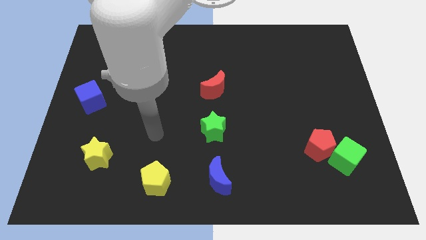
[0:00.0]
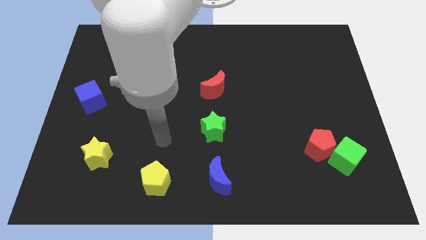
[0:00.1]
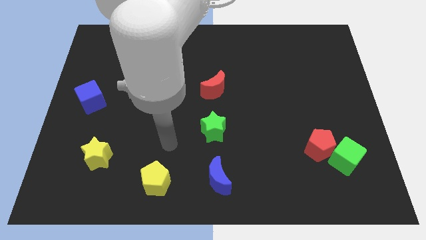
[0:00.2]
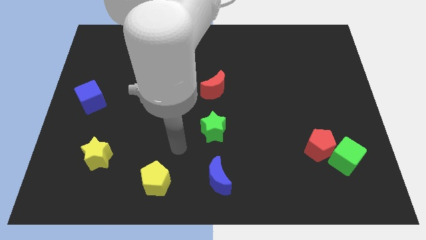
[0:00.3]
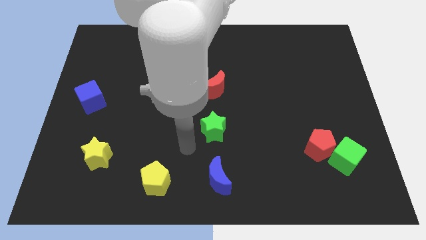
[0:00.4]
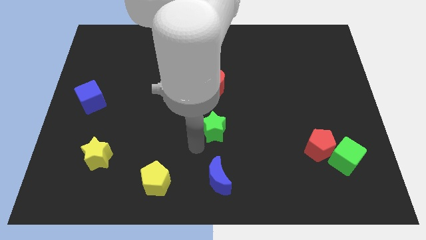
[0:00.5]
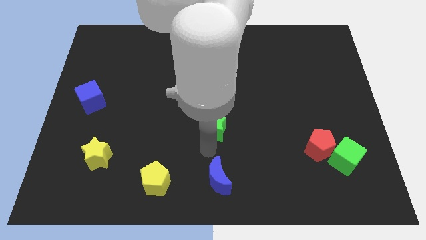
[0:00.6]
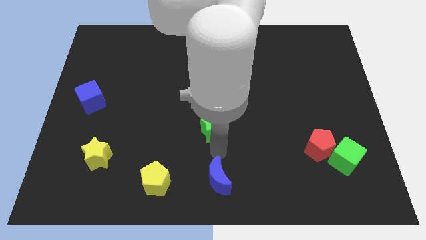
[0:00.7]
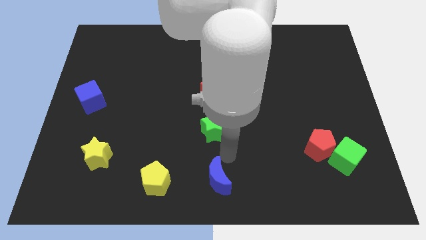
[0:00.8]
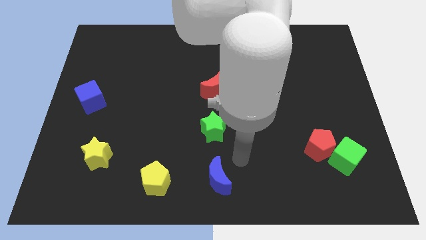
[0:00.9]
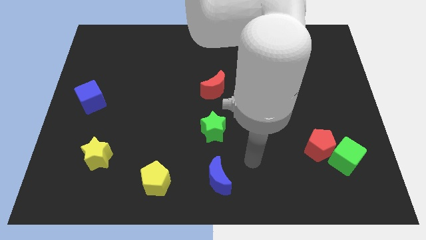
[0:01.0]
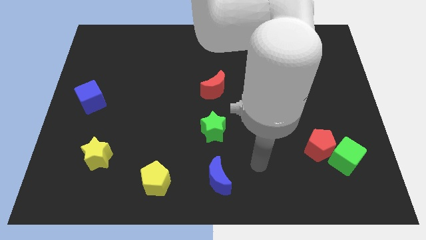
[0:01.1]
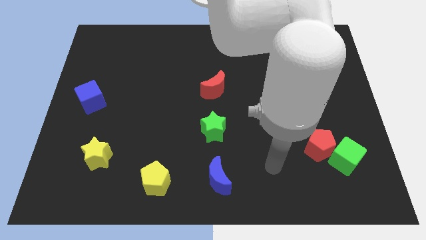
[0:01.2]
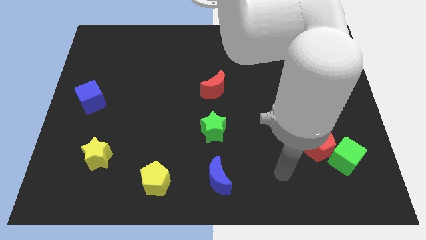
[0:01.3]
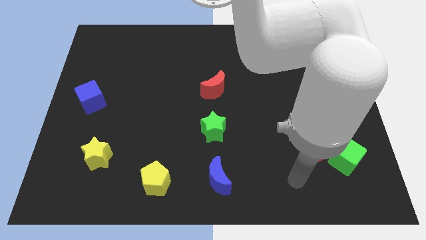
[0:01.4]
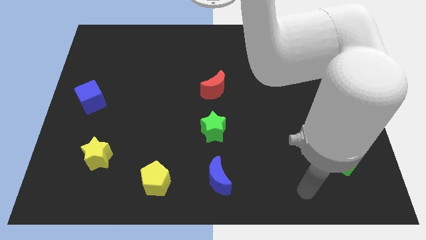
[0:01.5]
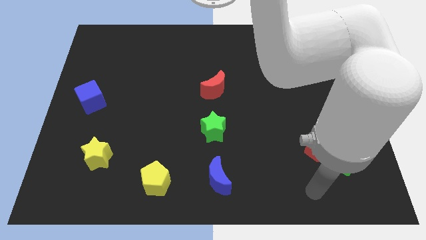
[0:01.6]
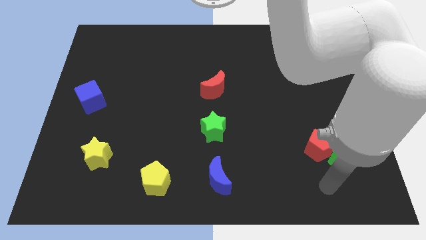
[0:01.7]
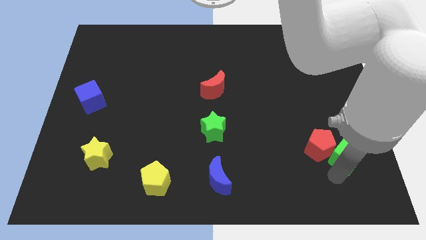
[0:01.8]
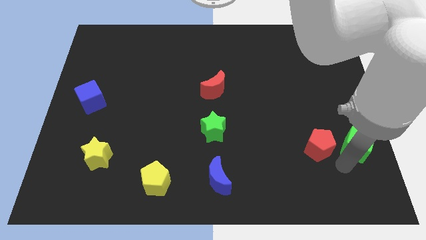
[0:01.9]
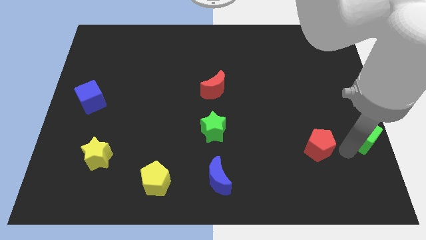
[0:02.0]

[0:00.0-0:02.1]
separate the red pentagon from the green cube

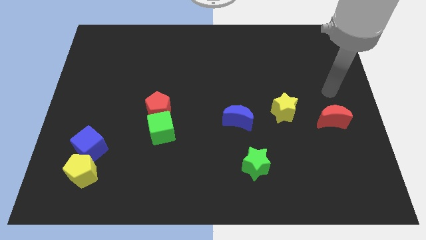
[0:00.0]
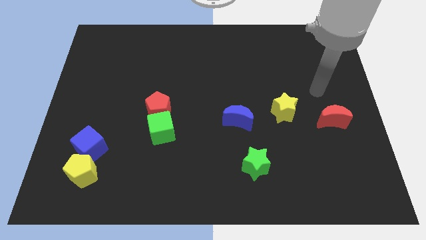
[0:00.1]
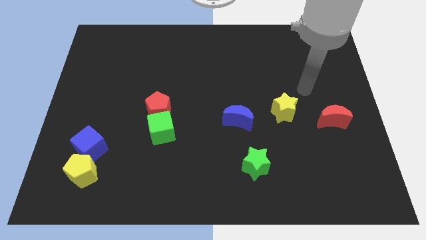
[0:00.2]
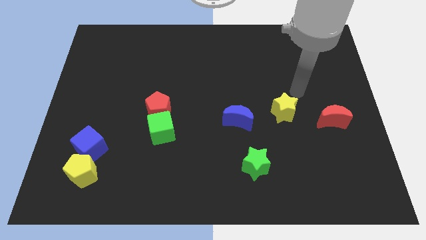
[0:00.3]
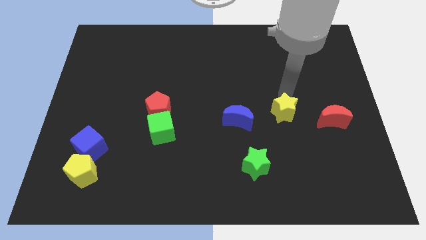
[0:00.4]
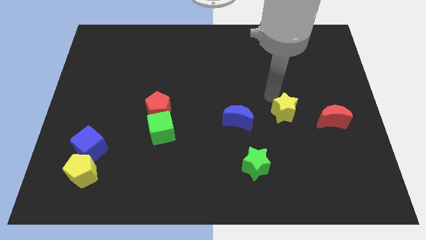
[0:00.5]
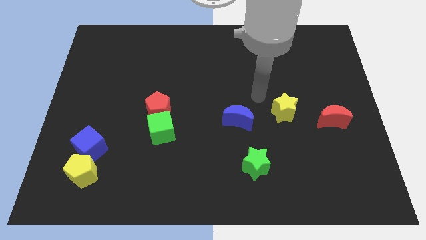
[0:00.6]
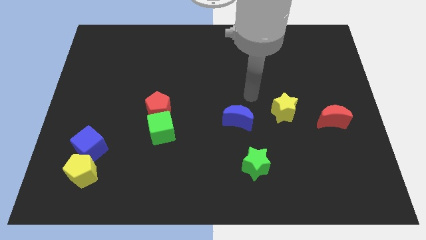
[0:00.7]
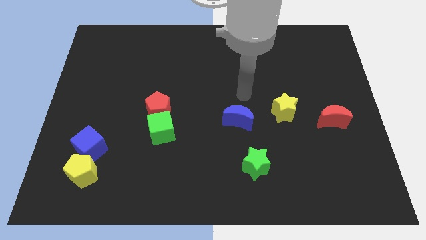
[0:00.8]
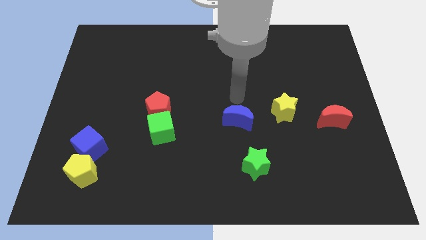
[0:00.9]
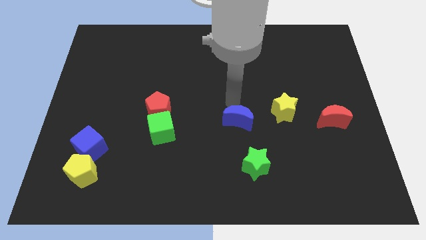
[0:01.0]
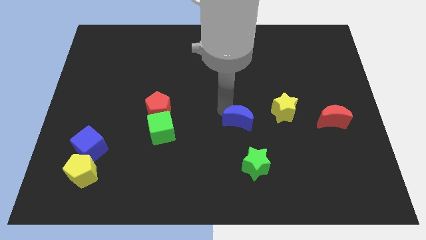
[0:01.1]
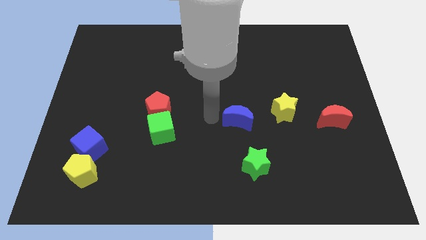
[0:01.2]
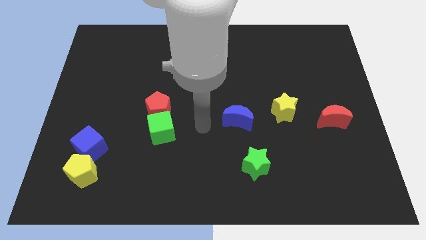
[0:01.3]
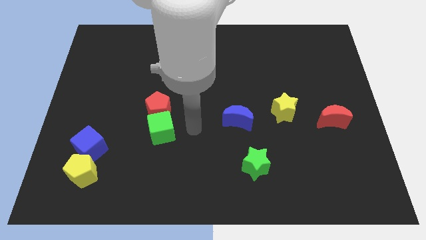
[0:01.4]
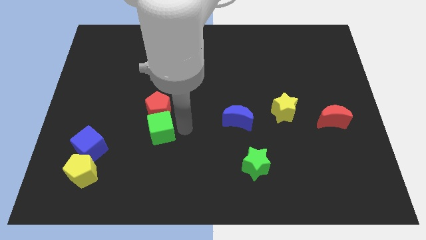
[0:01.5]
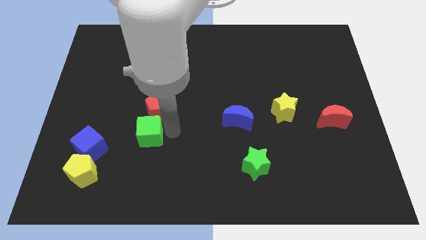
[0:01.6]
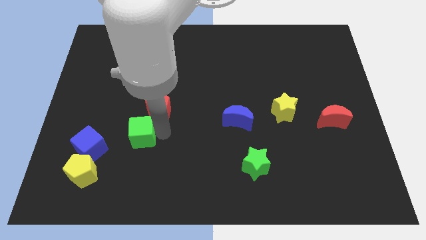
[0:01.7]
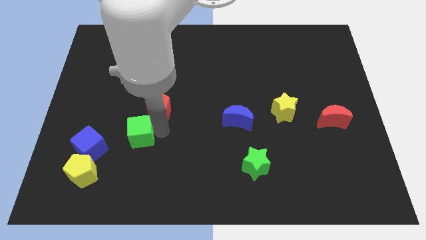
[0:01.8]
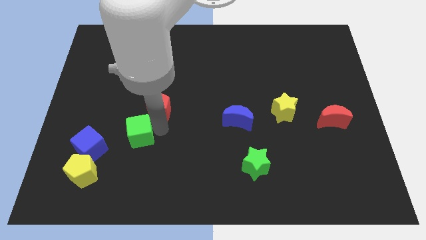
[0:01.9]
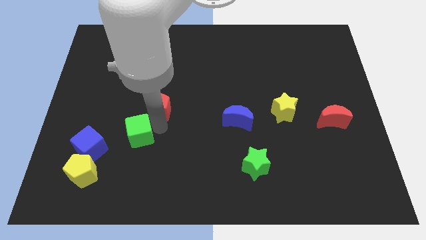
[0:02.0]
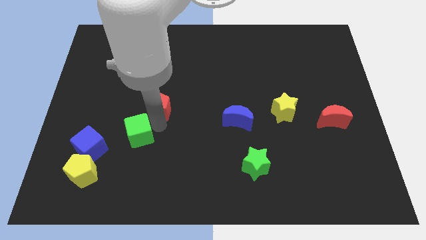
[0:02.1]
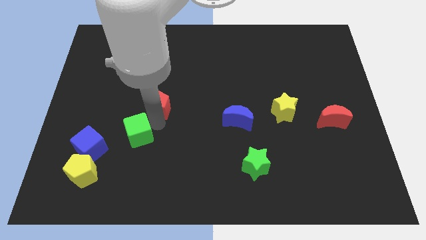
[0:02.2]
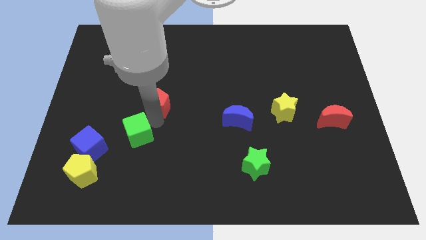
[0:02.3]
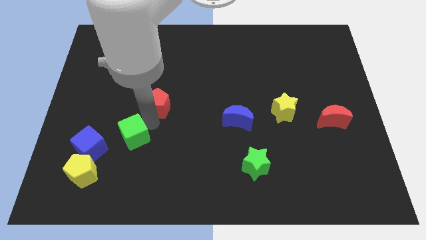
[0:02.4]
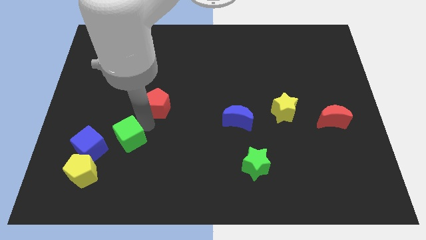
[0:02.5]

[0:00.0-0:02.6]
move the red pentagon away from the green cube

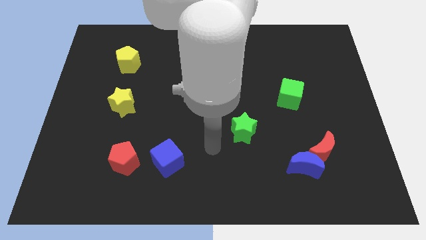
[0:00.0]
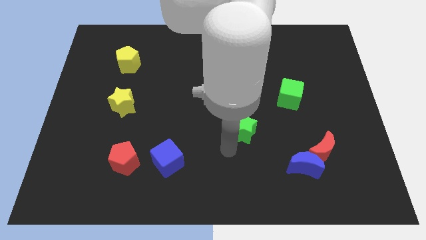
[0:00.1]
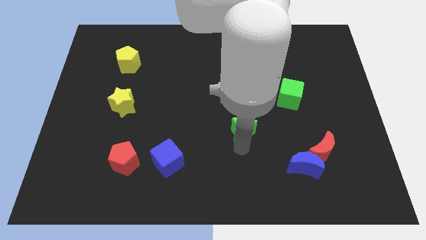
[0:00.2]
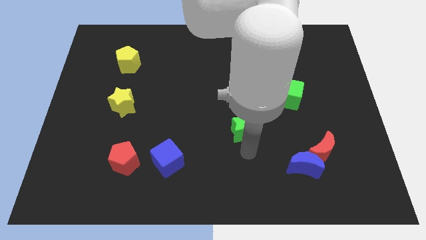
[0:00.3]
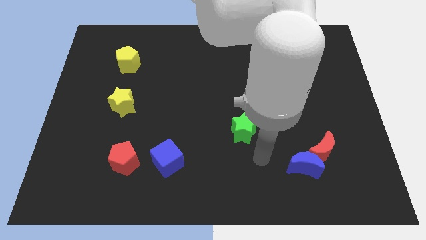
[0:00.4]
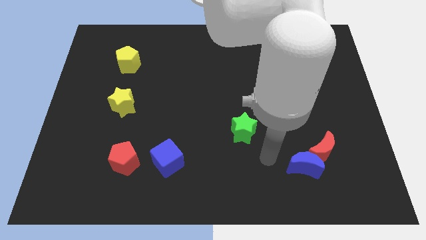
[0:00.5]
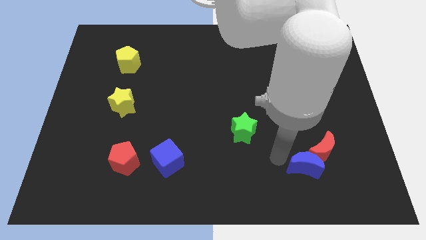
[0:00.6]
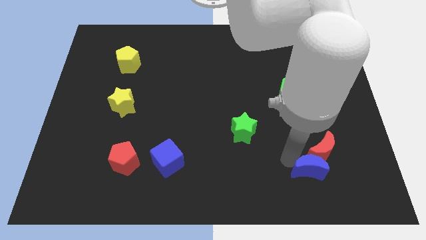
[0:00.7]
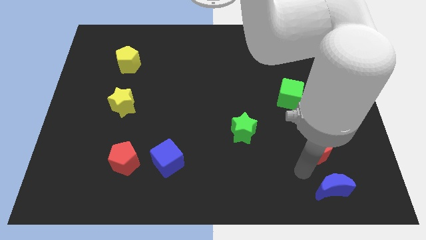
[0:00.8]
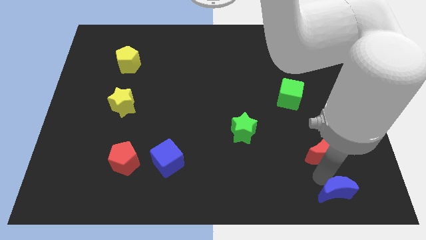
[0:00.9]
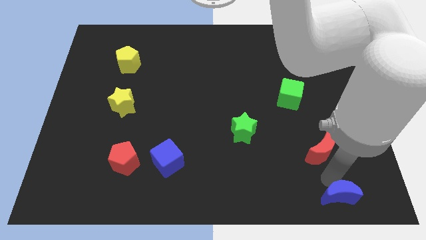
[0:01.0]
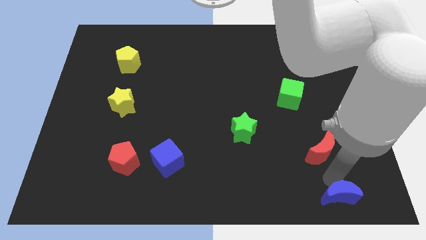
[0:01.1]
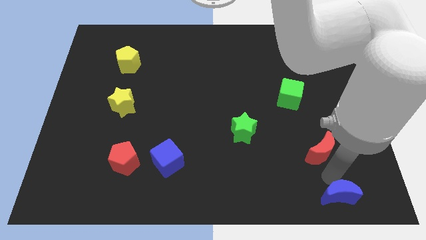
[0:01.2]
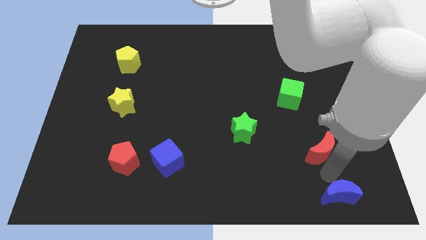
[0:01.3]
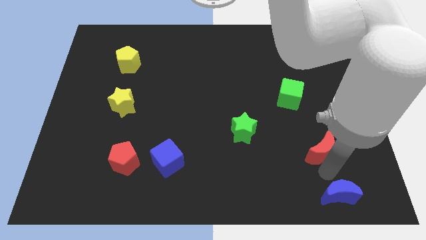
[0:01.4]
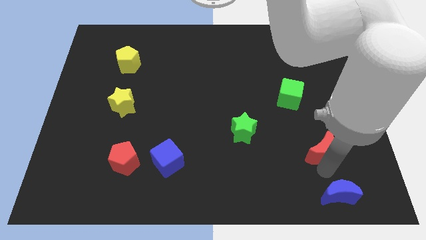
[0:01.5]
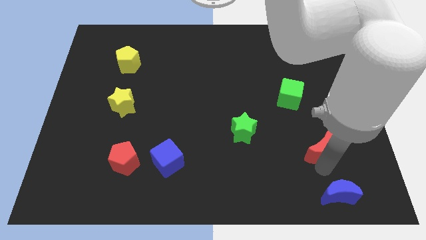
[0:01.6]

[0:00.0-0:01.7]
pull the red moon apart from the blue moon

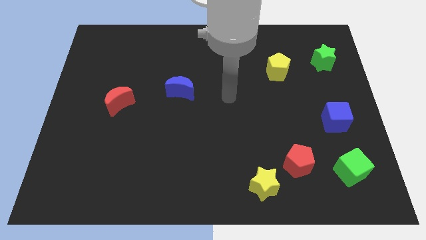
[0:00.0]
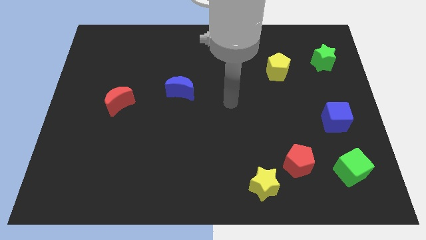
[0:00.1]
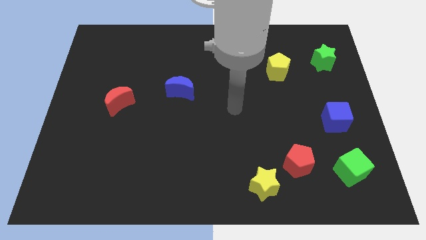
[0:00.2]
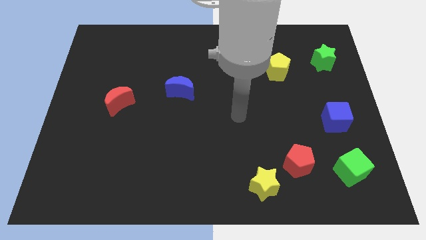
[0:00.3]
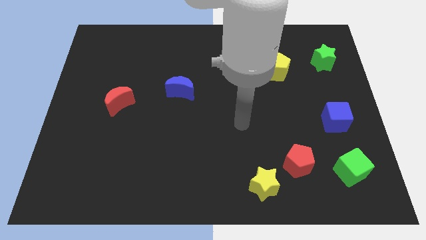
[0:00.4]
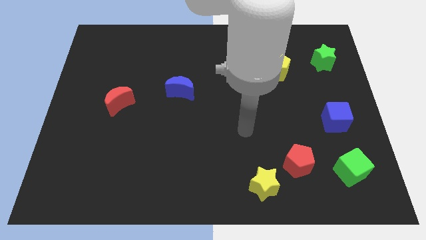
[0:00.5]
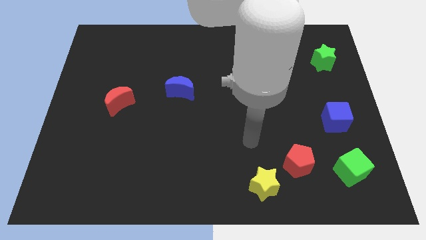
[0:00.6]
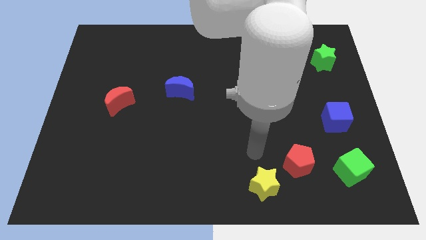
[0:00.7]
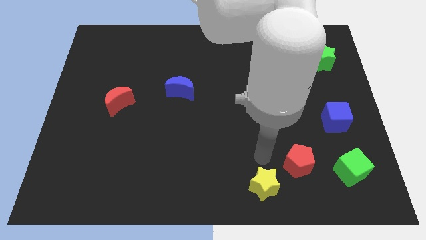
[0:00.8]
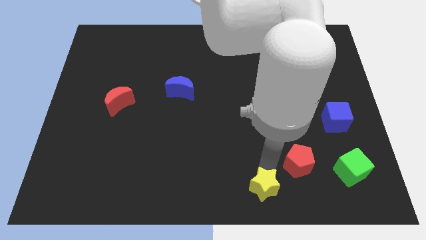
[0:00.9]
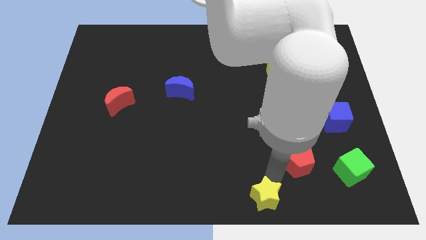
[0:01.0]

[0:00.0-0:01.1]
move the red pentagon away from the yellow star

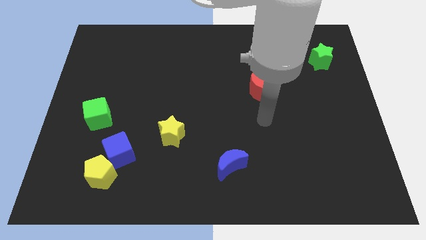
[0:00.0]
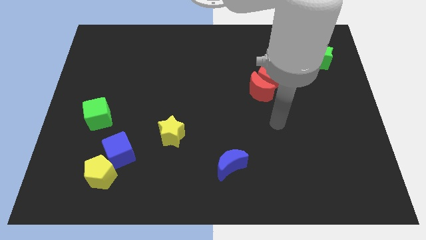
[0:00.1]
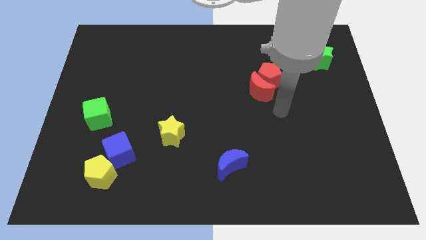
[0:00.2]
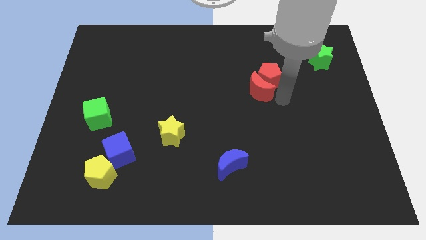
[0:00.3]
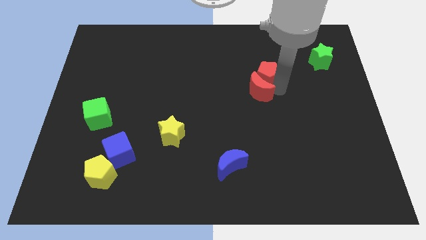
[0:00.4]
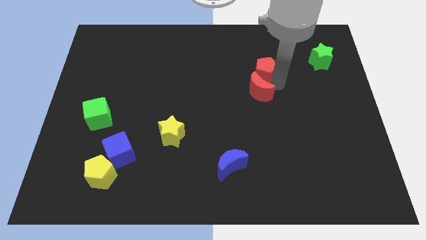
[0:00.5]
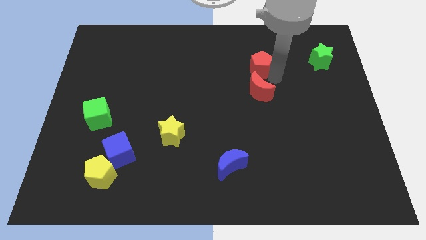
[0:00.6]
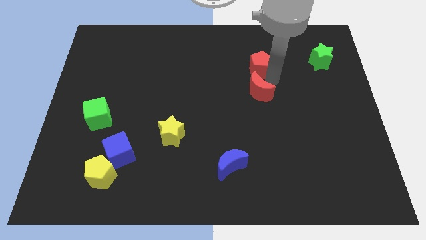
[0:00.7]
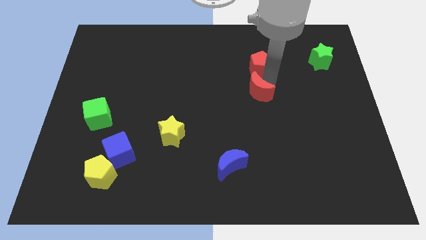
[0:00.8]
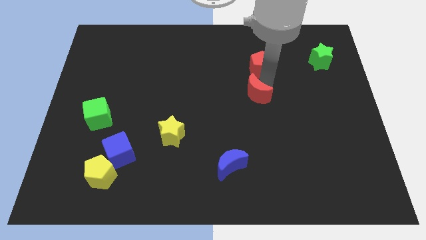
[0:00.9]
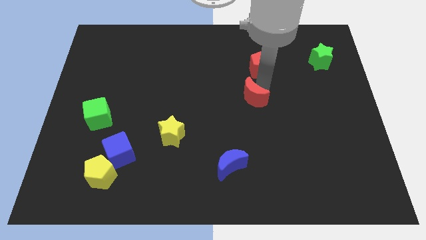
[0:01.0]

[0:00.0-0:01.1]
separate the red moon from the red pentagon

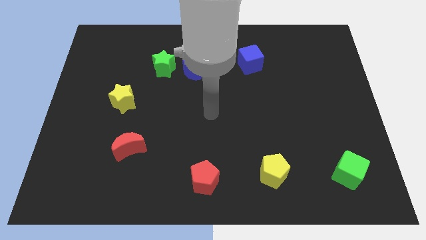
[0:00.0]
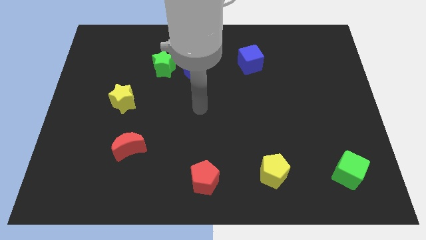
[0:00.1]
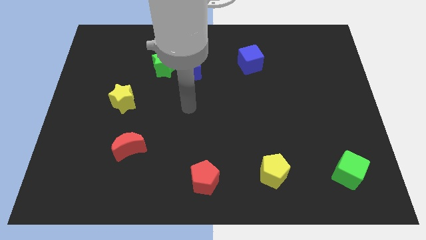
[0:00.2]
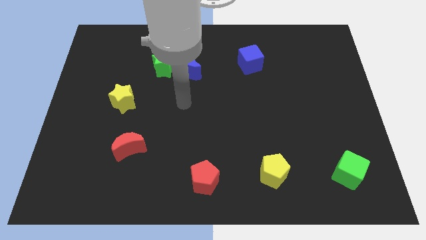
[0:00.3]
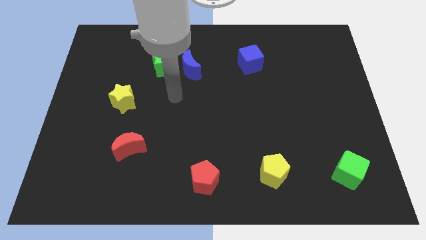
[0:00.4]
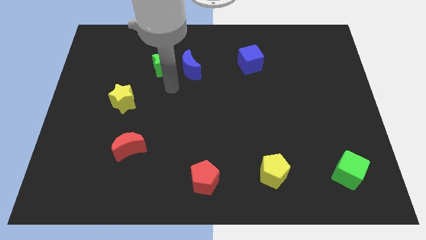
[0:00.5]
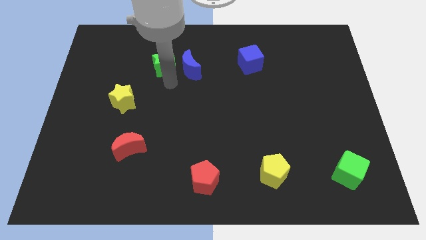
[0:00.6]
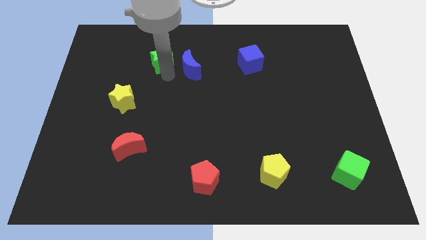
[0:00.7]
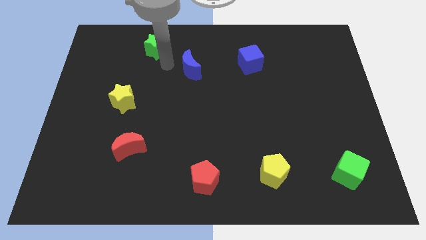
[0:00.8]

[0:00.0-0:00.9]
pull the blue moon apart from the green star
